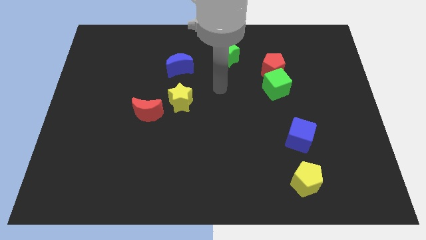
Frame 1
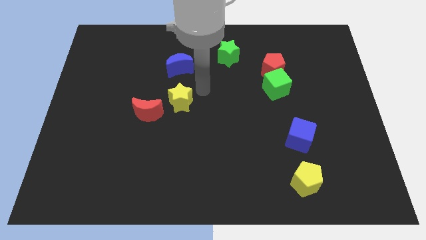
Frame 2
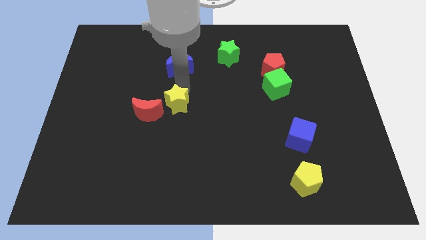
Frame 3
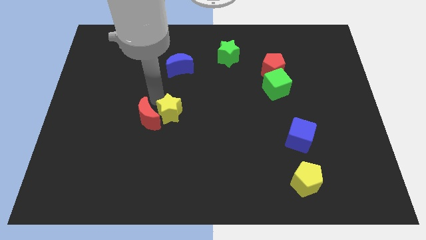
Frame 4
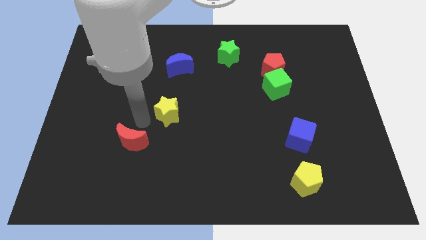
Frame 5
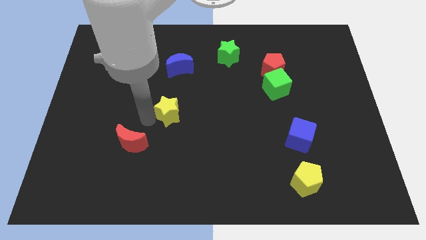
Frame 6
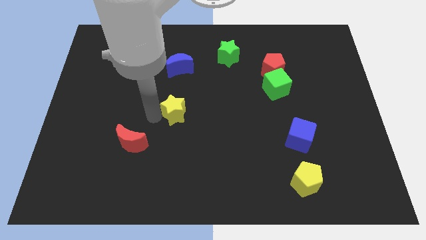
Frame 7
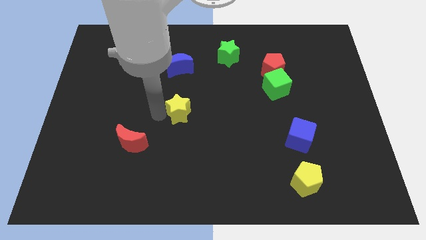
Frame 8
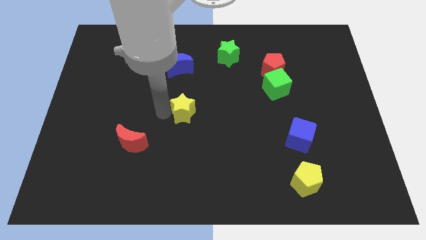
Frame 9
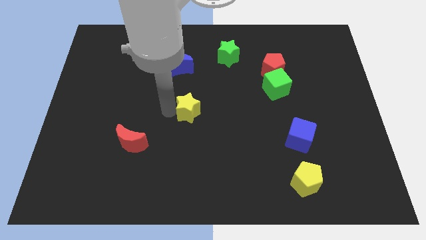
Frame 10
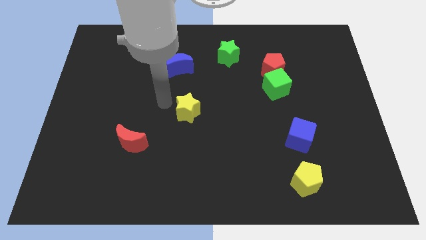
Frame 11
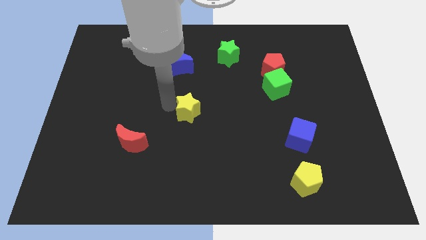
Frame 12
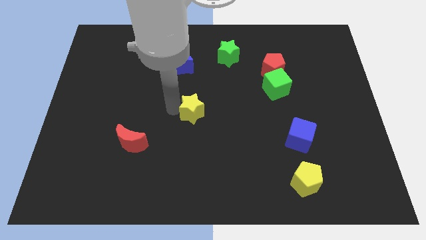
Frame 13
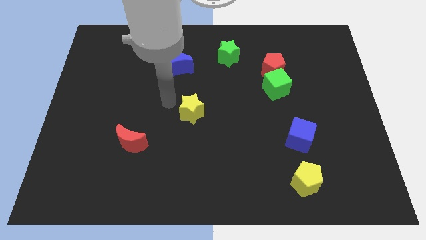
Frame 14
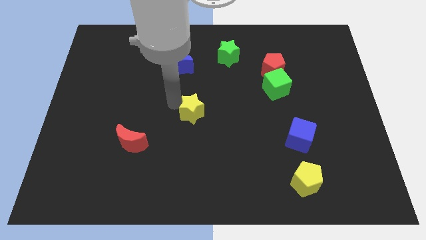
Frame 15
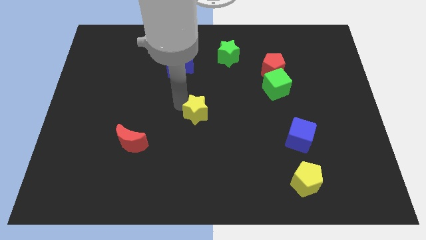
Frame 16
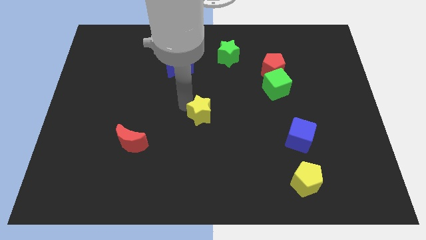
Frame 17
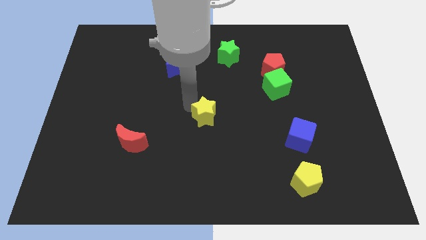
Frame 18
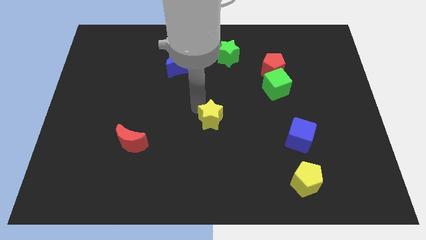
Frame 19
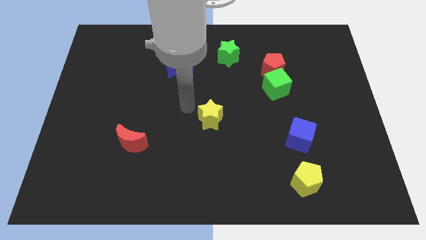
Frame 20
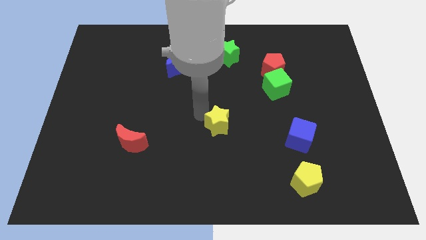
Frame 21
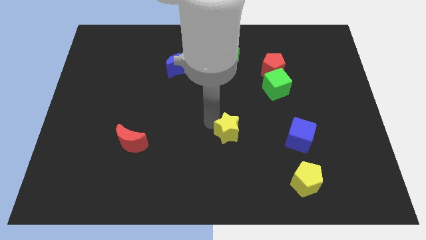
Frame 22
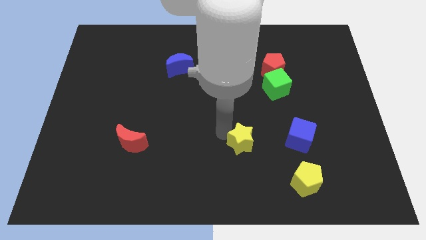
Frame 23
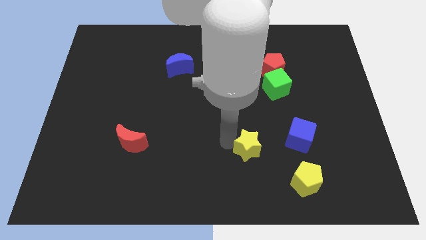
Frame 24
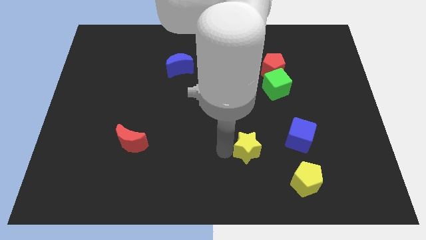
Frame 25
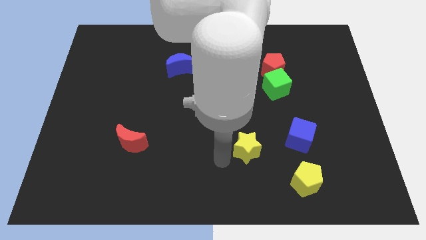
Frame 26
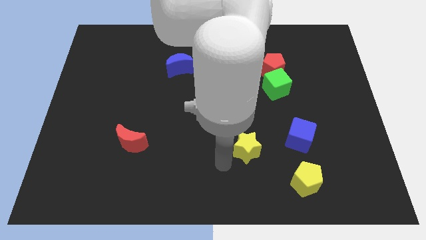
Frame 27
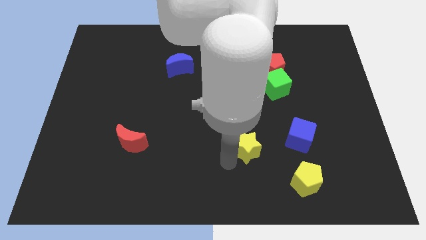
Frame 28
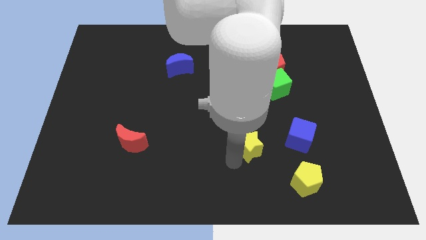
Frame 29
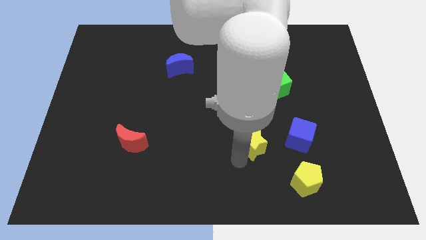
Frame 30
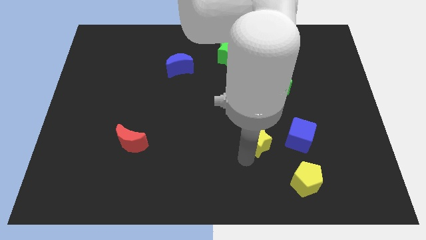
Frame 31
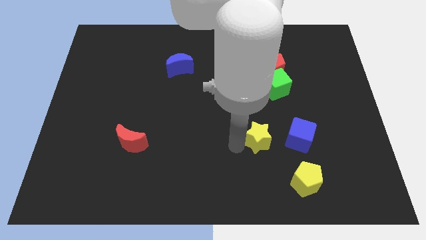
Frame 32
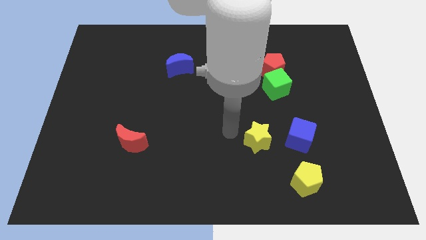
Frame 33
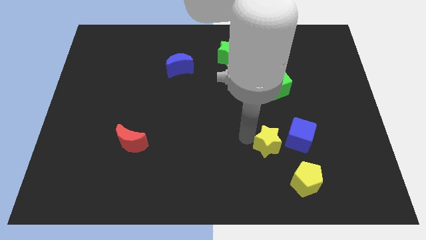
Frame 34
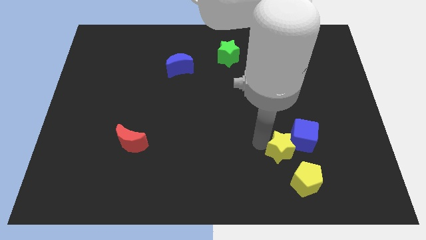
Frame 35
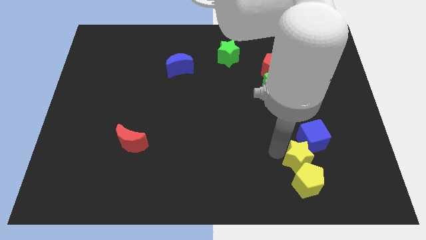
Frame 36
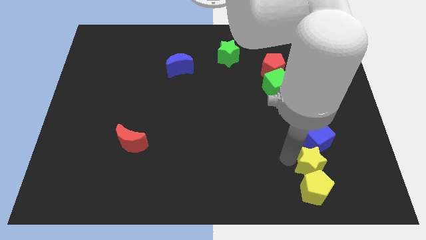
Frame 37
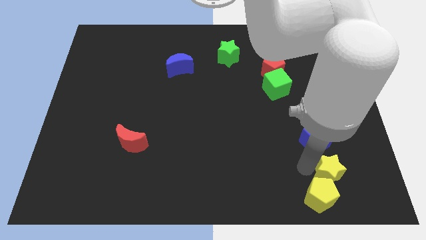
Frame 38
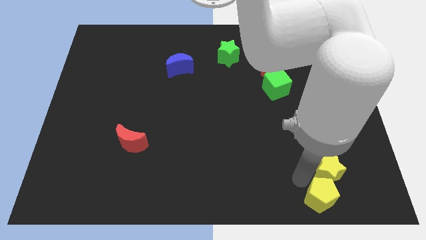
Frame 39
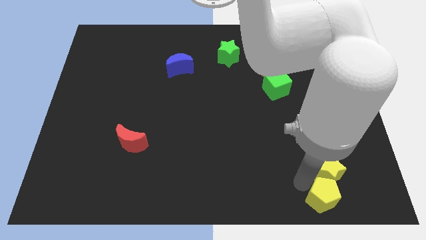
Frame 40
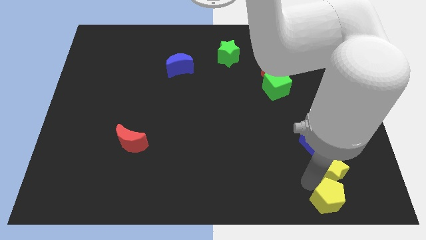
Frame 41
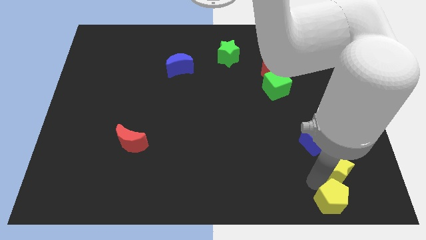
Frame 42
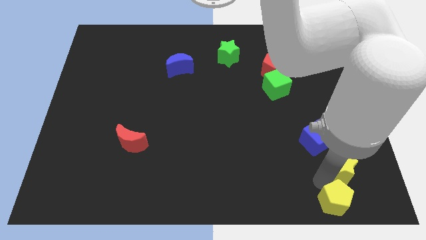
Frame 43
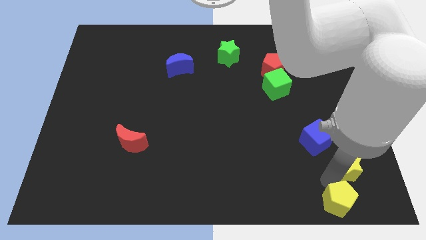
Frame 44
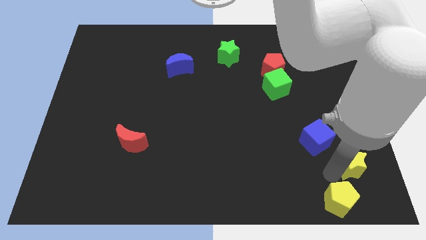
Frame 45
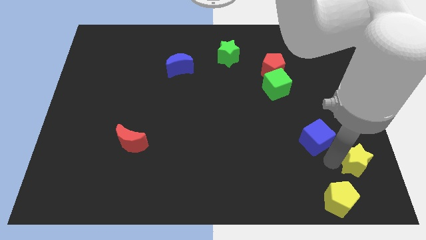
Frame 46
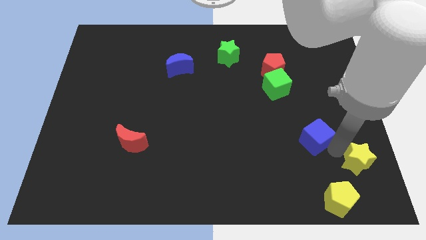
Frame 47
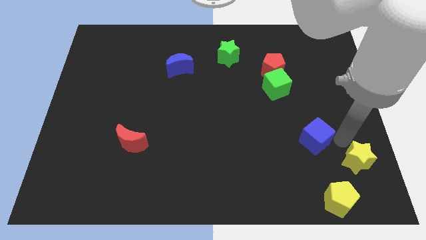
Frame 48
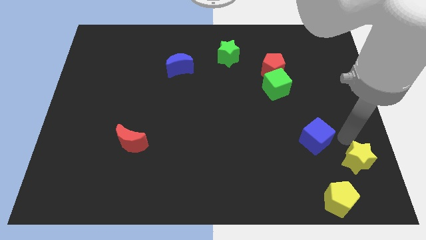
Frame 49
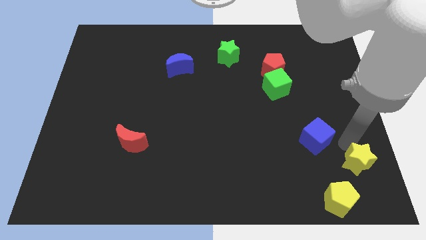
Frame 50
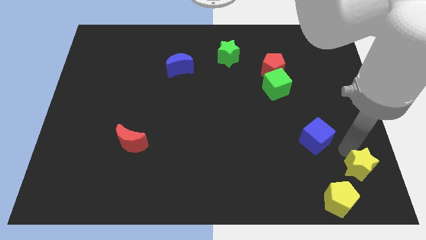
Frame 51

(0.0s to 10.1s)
move the yellow star to the bottom right of the board

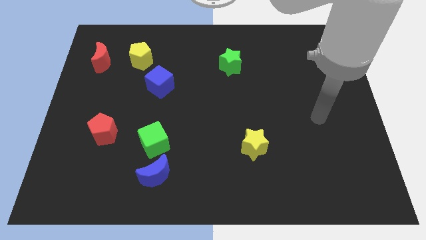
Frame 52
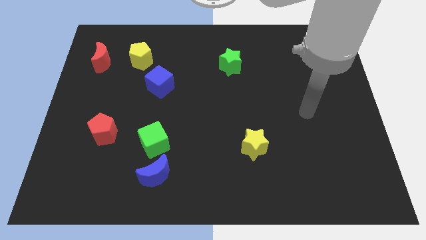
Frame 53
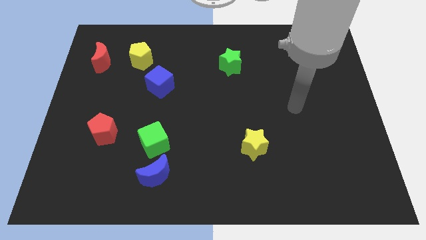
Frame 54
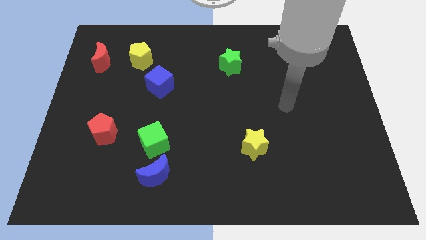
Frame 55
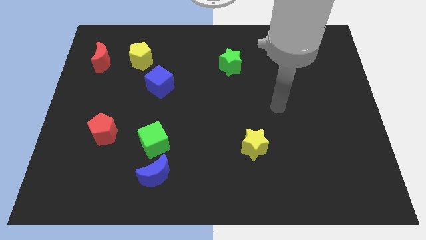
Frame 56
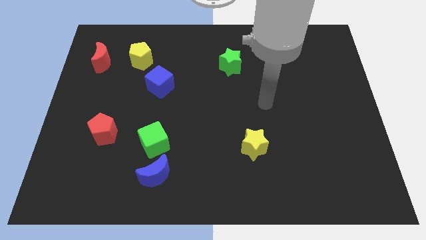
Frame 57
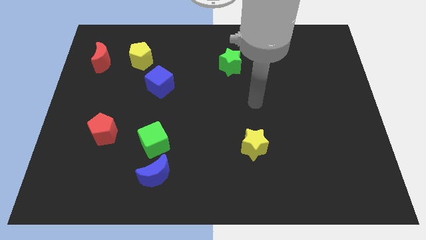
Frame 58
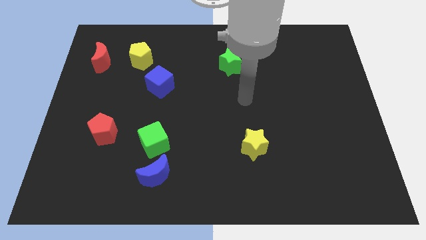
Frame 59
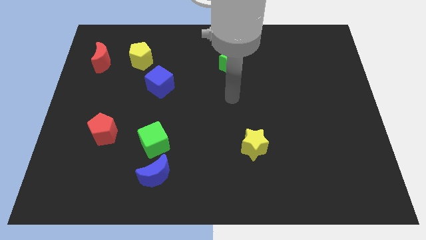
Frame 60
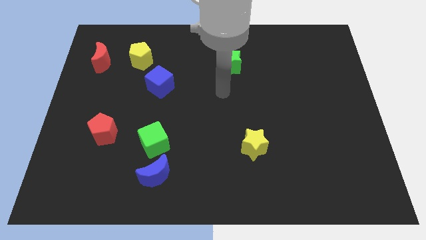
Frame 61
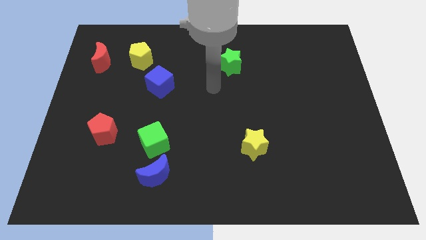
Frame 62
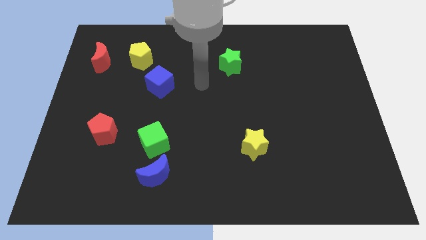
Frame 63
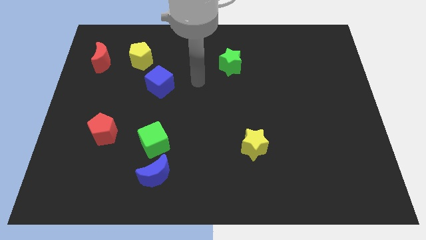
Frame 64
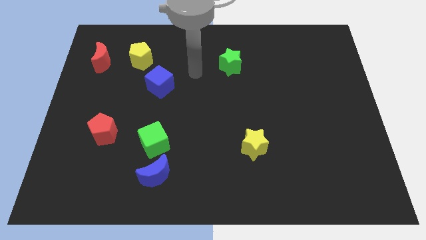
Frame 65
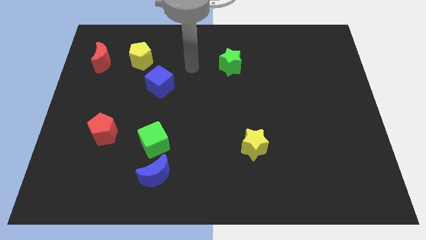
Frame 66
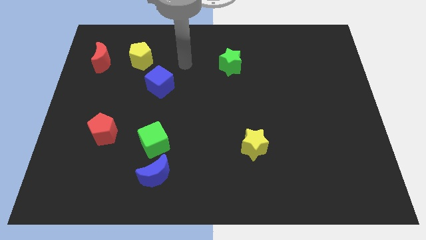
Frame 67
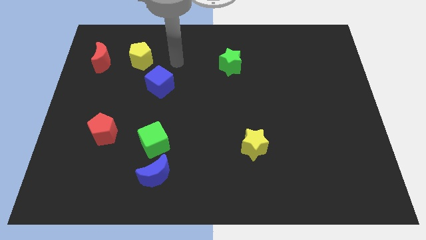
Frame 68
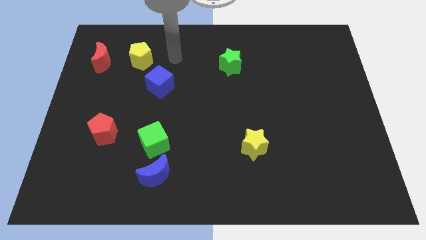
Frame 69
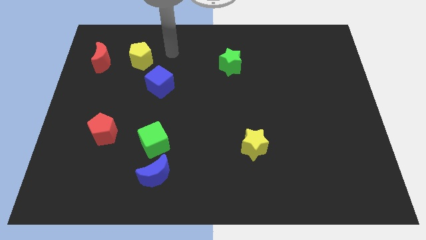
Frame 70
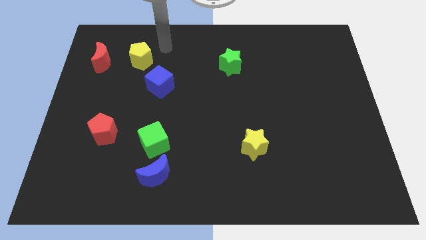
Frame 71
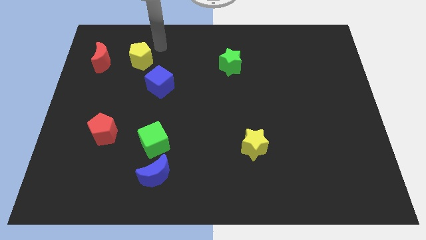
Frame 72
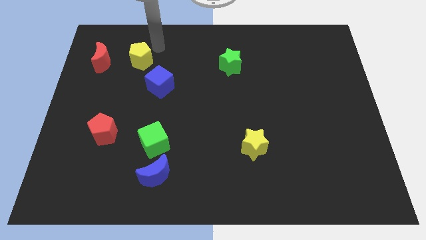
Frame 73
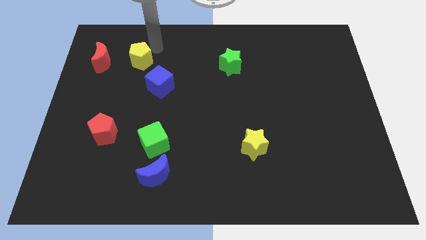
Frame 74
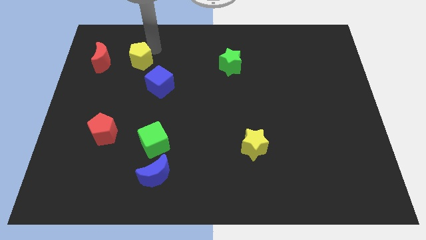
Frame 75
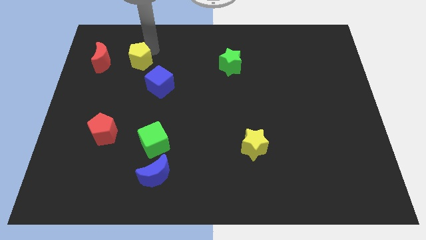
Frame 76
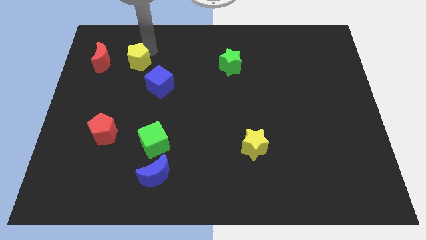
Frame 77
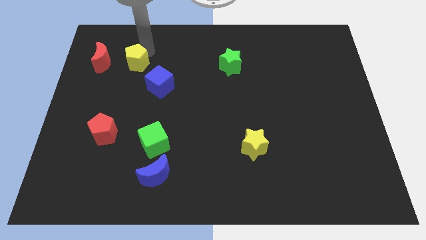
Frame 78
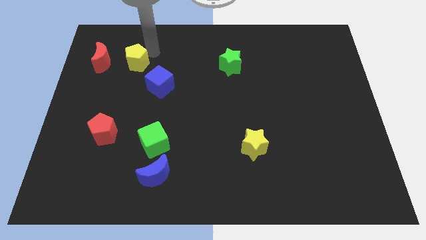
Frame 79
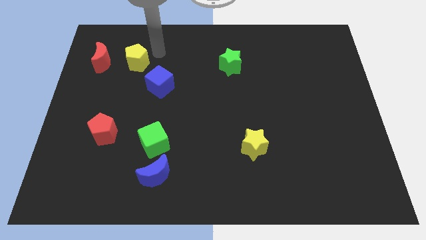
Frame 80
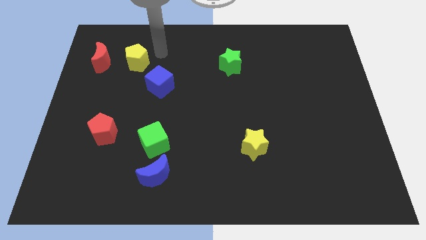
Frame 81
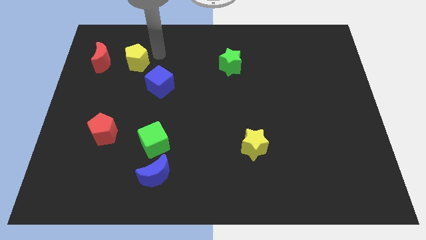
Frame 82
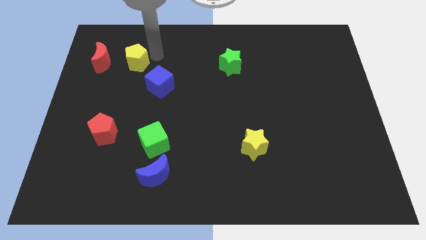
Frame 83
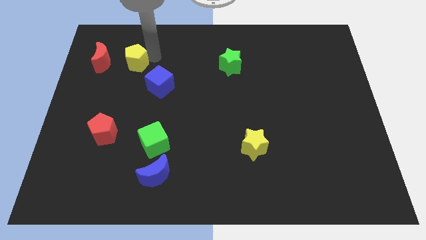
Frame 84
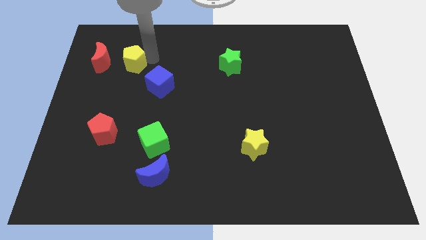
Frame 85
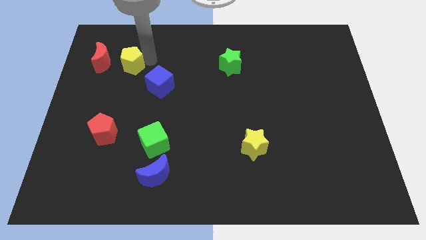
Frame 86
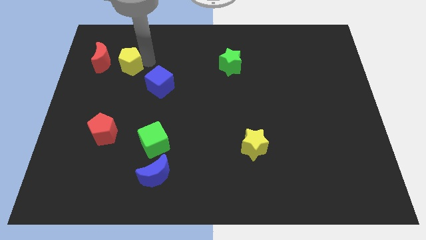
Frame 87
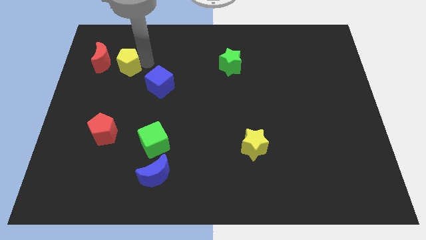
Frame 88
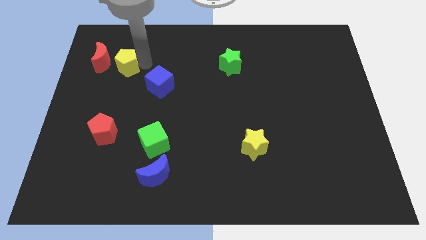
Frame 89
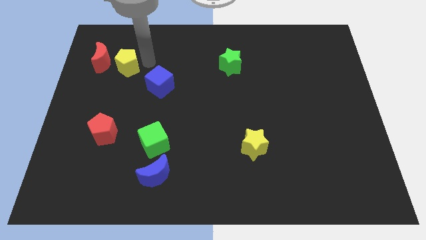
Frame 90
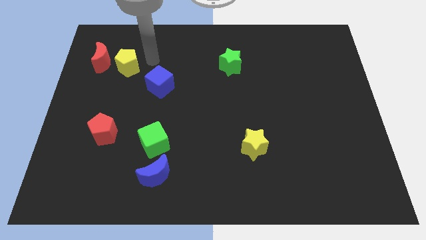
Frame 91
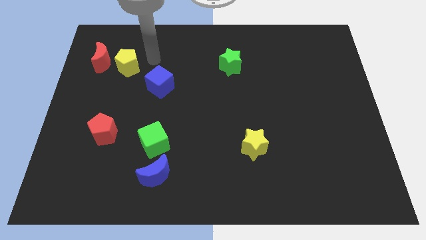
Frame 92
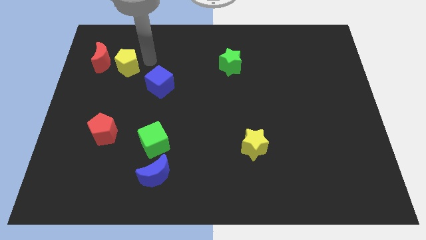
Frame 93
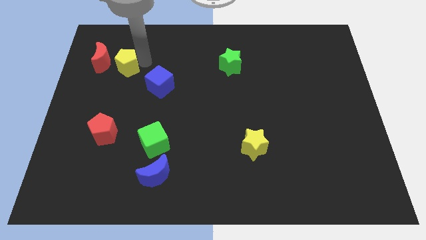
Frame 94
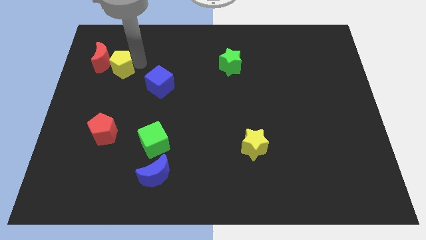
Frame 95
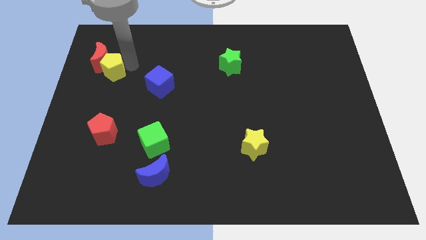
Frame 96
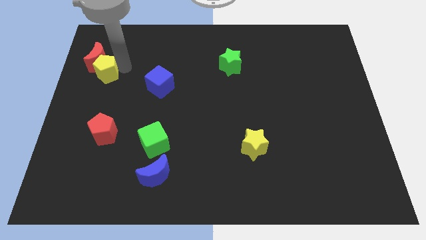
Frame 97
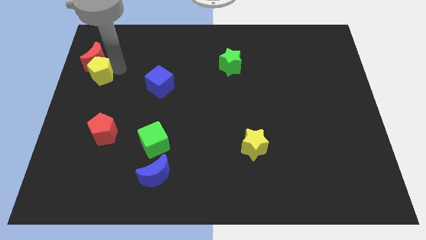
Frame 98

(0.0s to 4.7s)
push the yellow pentagon to the left side
